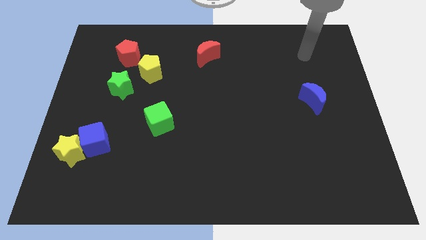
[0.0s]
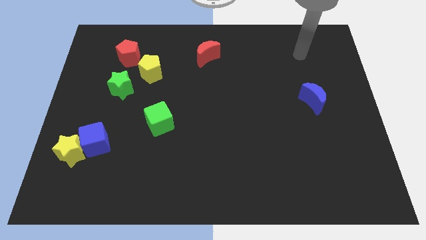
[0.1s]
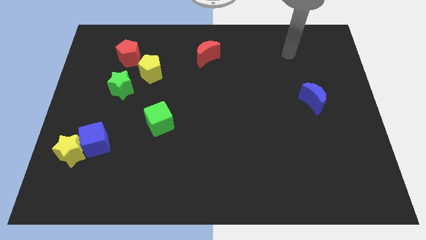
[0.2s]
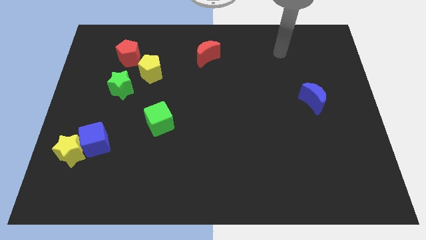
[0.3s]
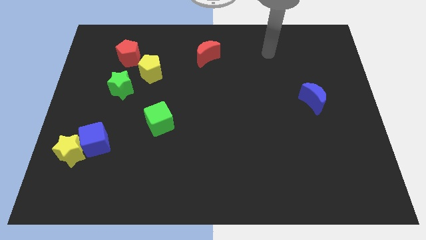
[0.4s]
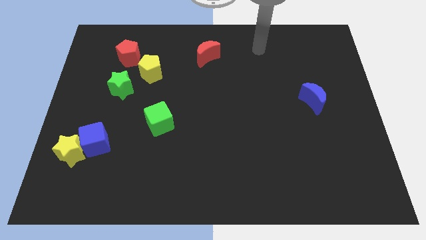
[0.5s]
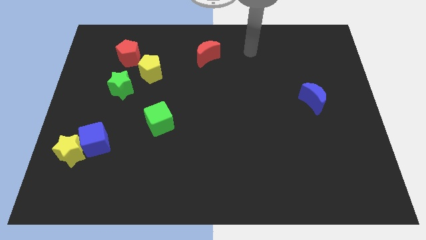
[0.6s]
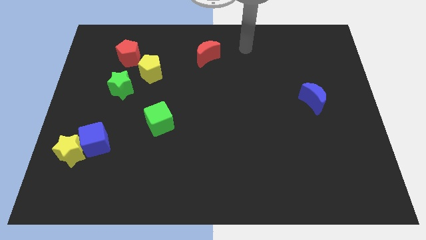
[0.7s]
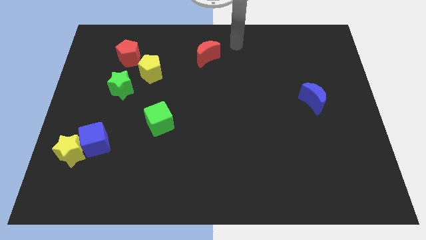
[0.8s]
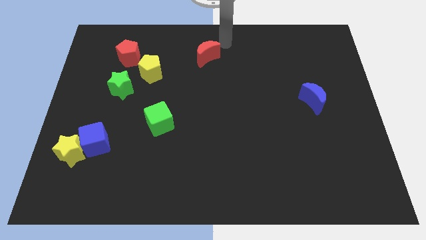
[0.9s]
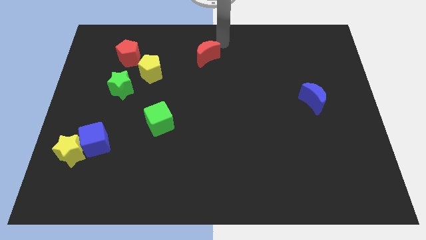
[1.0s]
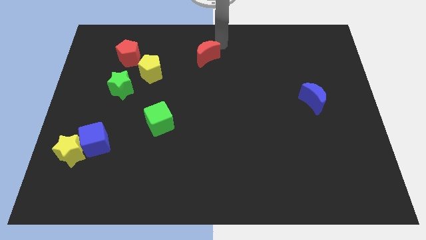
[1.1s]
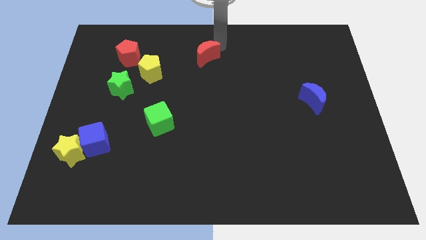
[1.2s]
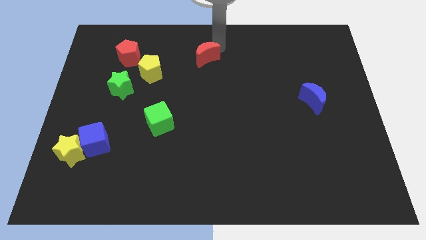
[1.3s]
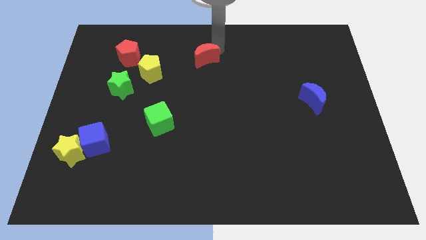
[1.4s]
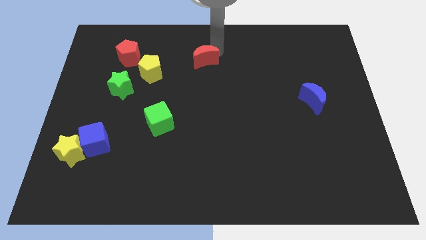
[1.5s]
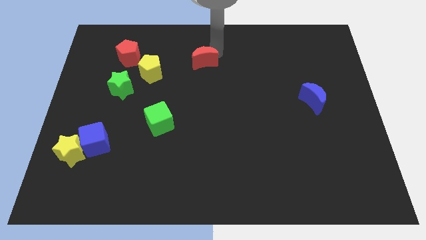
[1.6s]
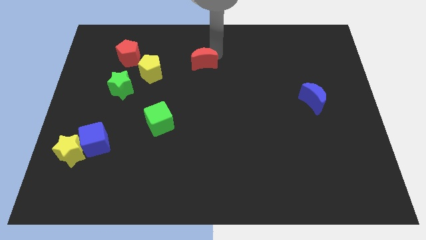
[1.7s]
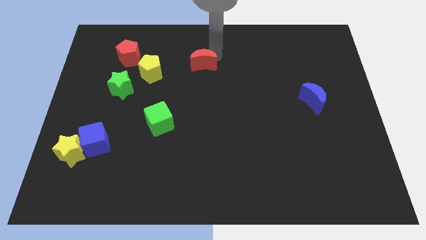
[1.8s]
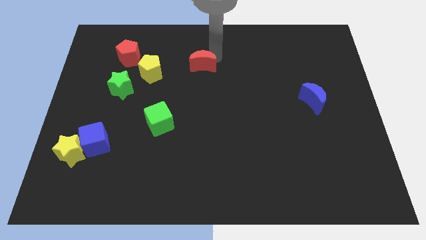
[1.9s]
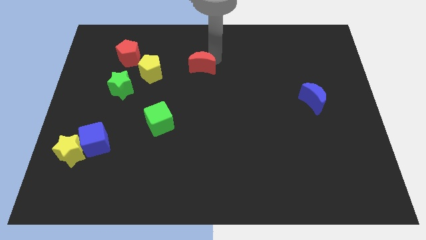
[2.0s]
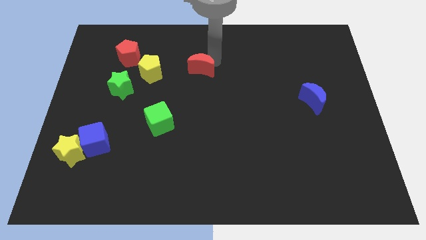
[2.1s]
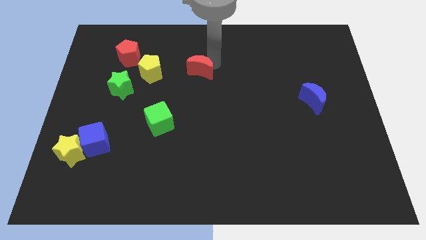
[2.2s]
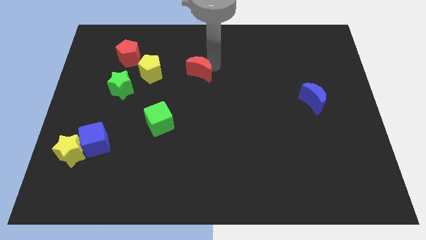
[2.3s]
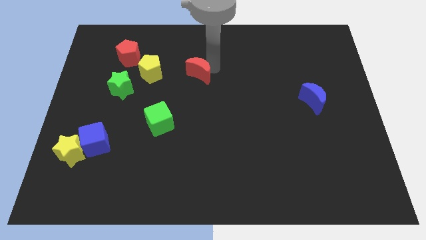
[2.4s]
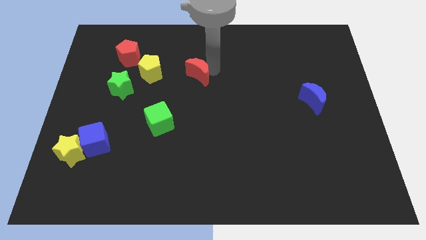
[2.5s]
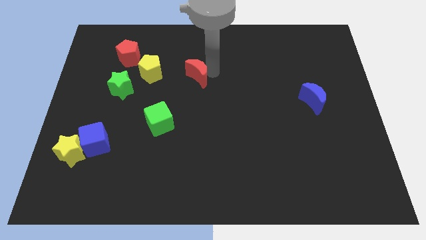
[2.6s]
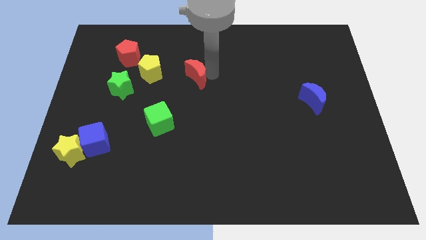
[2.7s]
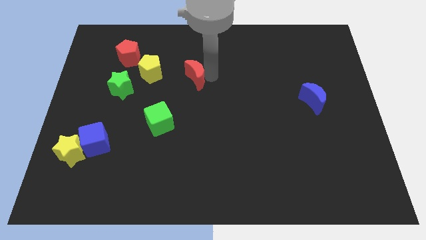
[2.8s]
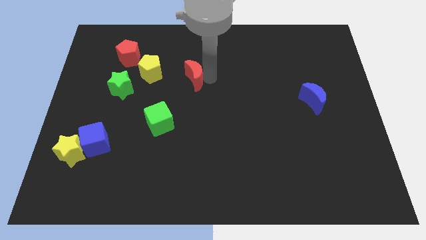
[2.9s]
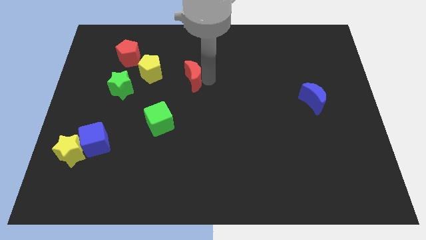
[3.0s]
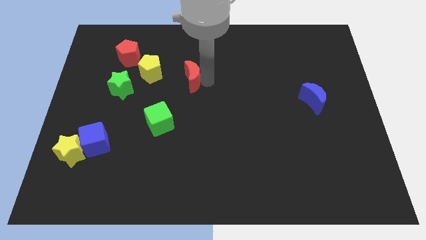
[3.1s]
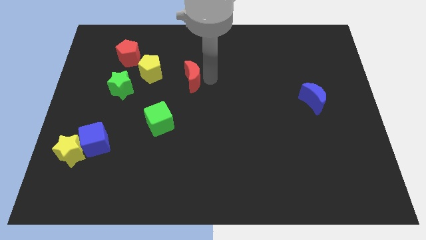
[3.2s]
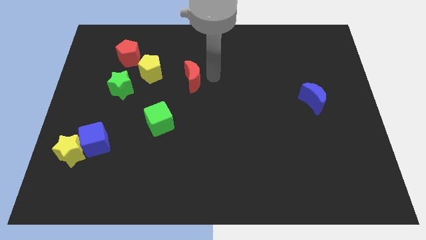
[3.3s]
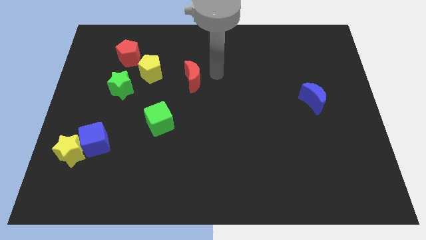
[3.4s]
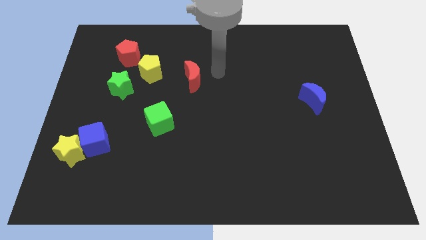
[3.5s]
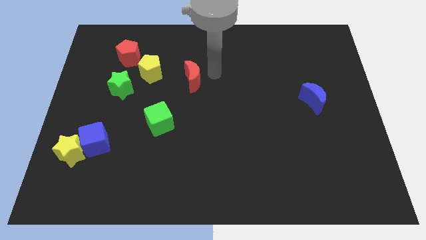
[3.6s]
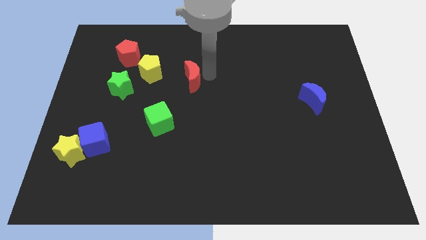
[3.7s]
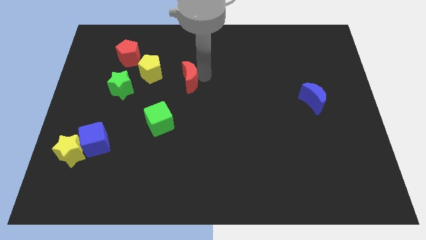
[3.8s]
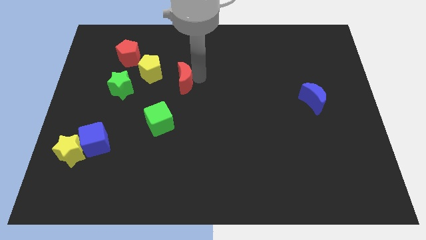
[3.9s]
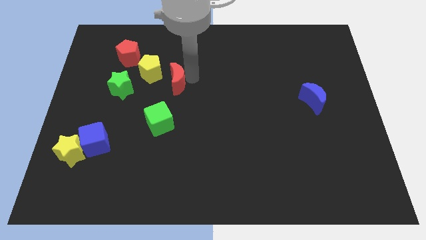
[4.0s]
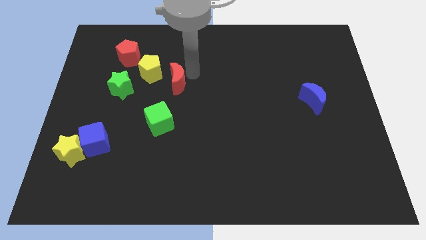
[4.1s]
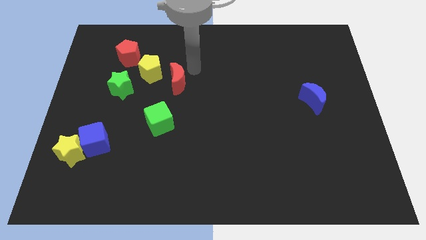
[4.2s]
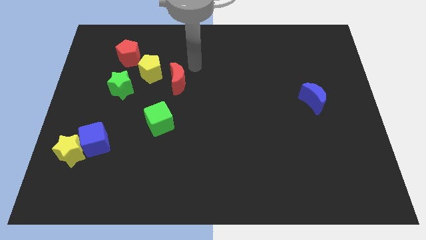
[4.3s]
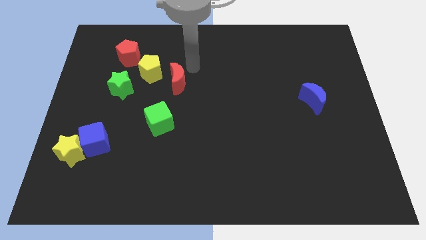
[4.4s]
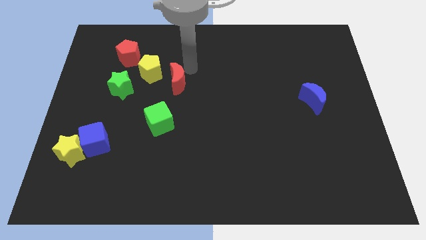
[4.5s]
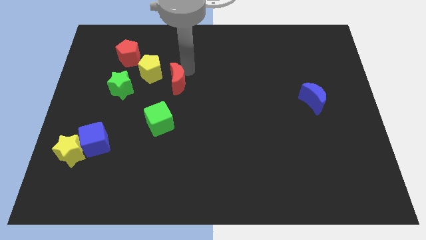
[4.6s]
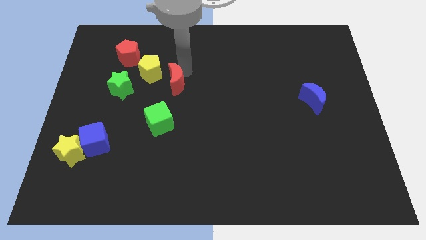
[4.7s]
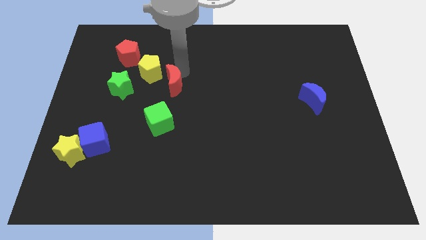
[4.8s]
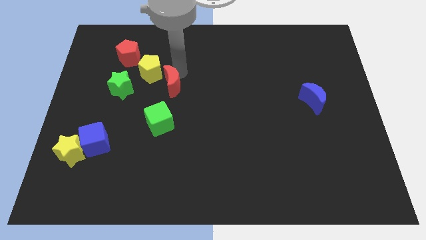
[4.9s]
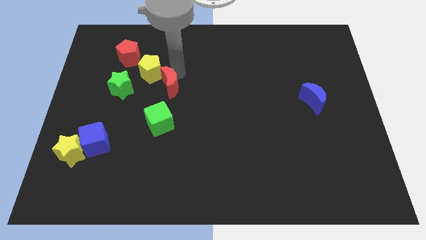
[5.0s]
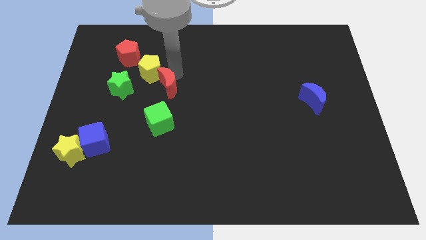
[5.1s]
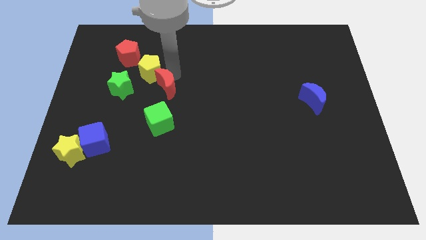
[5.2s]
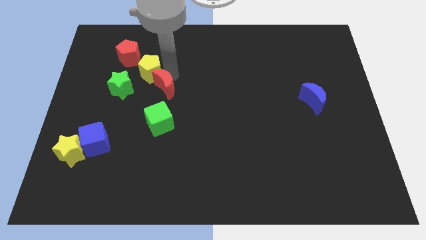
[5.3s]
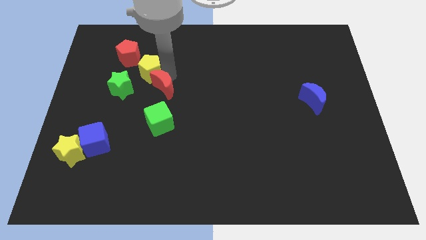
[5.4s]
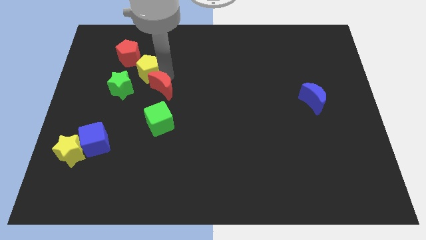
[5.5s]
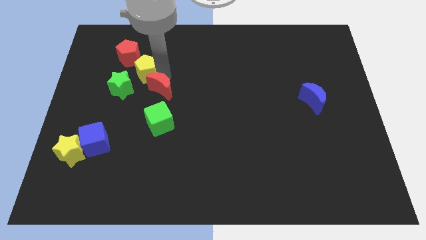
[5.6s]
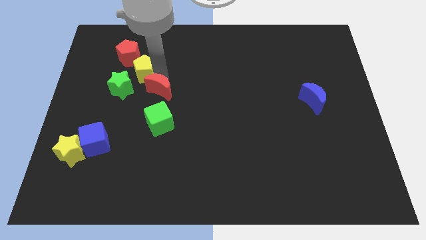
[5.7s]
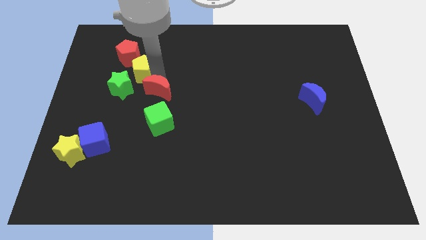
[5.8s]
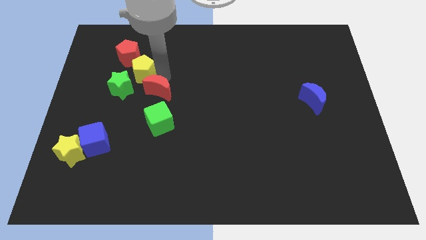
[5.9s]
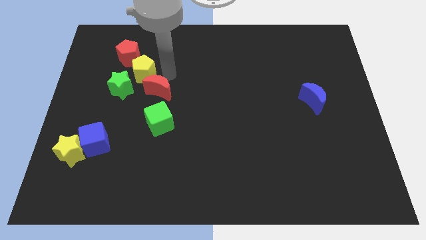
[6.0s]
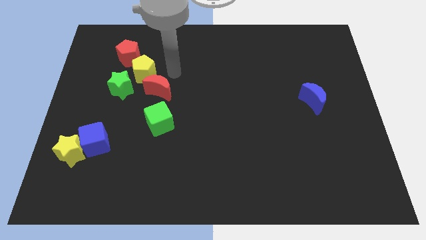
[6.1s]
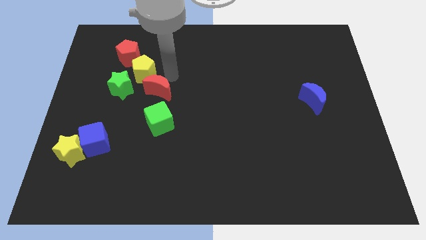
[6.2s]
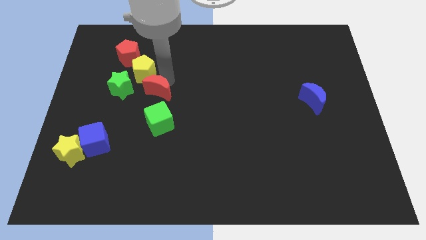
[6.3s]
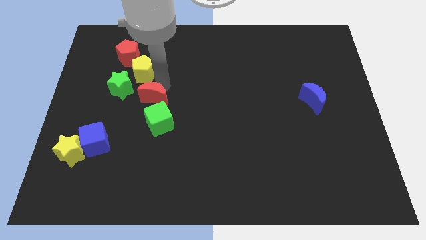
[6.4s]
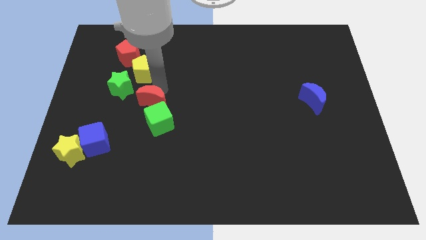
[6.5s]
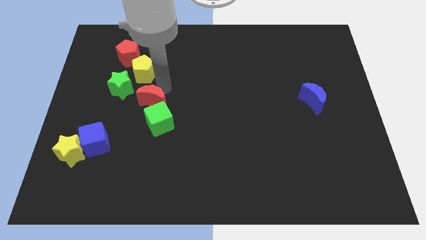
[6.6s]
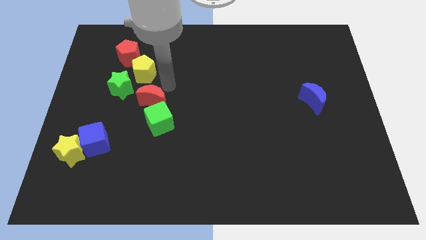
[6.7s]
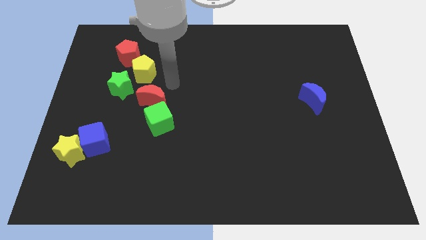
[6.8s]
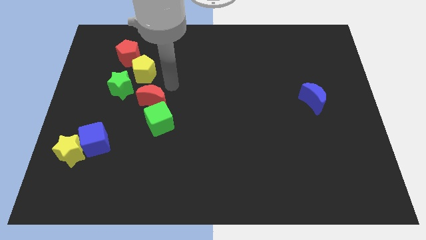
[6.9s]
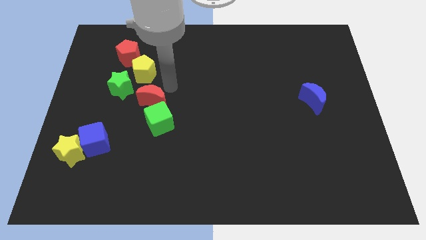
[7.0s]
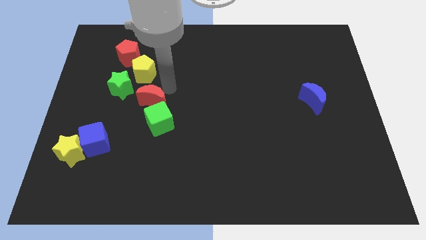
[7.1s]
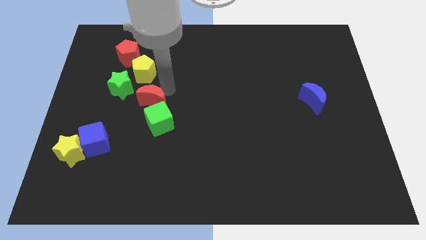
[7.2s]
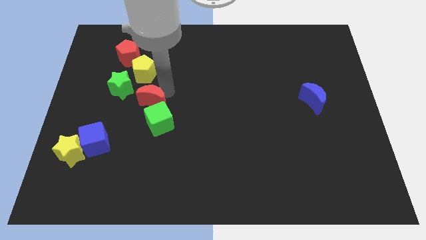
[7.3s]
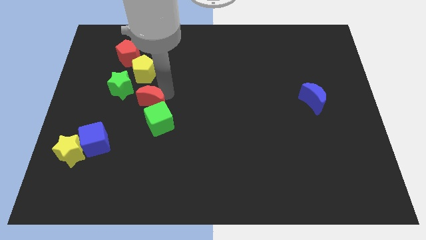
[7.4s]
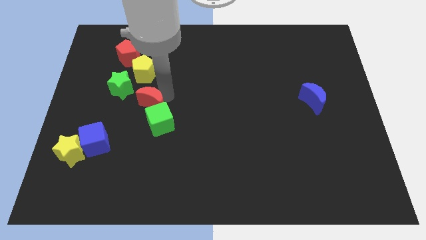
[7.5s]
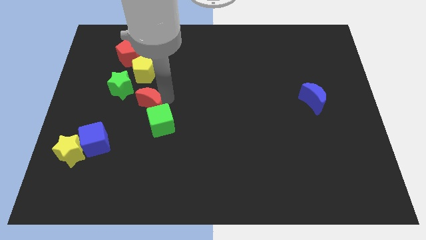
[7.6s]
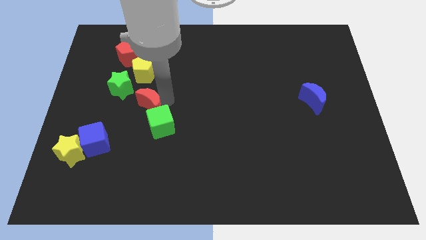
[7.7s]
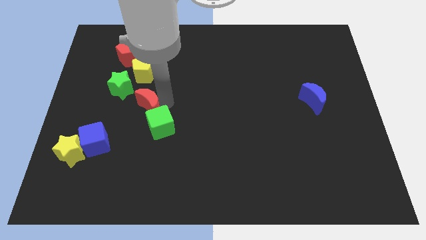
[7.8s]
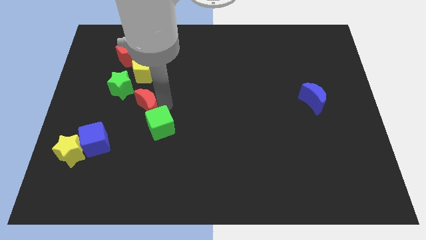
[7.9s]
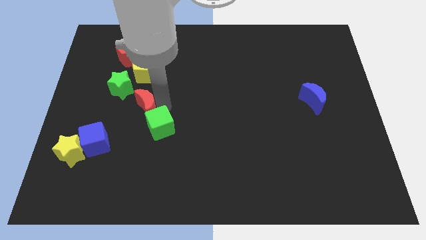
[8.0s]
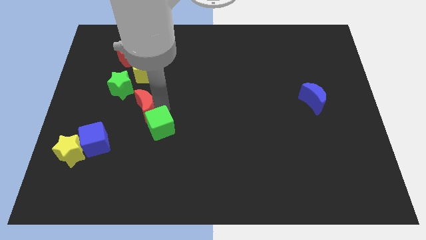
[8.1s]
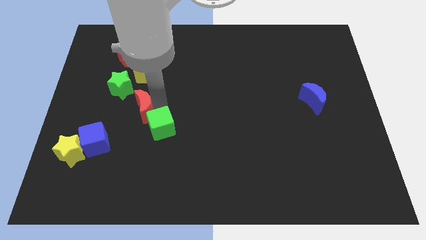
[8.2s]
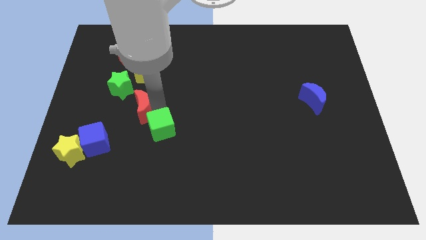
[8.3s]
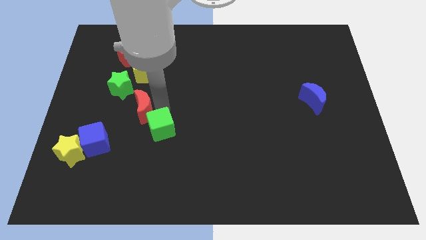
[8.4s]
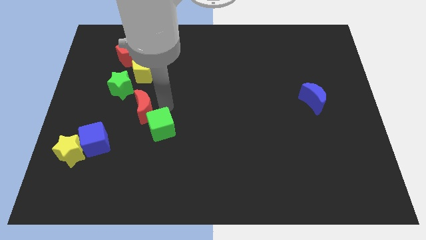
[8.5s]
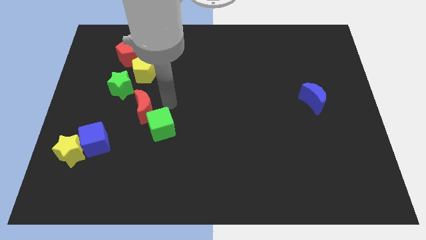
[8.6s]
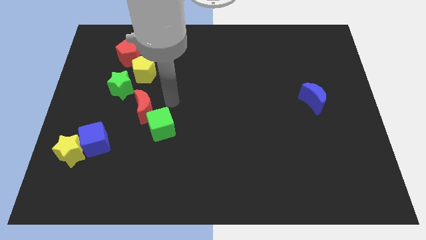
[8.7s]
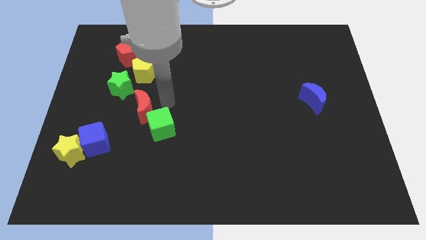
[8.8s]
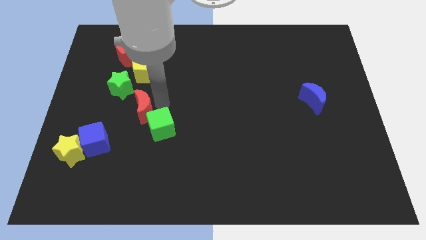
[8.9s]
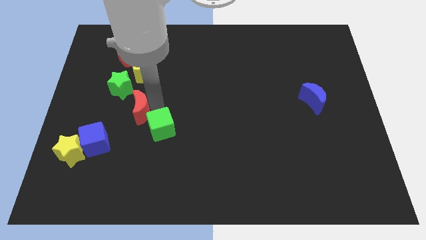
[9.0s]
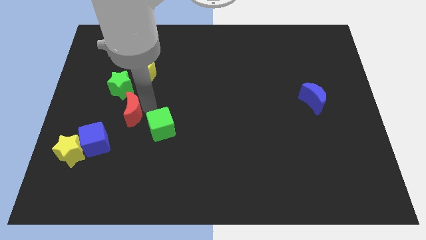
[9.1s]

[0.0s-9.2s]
slide the red moon below the green star
